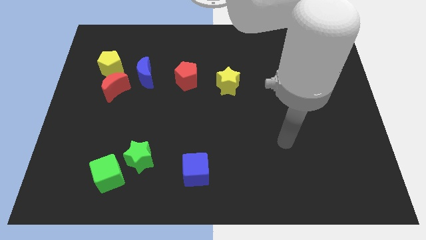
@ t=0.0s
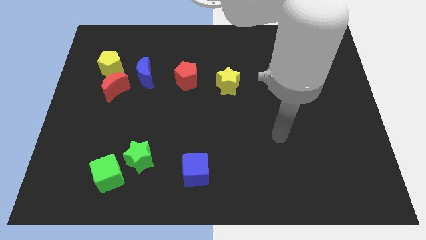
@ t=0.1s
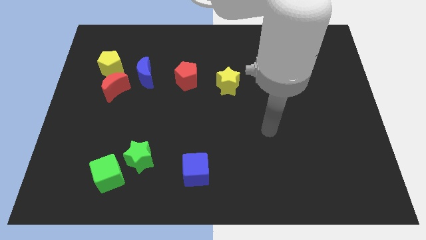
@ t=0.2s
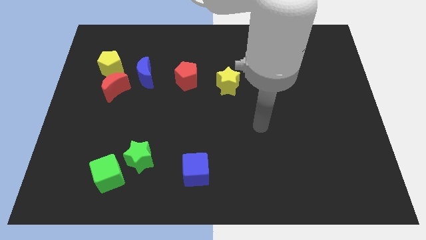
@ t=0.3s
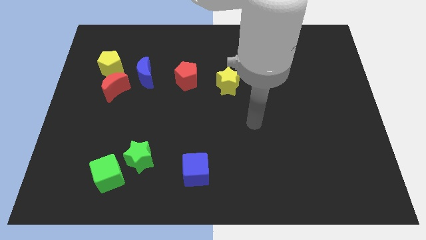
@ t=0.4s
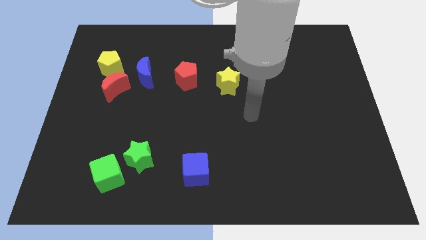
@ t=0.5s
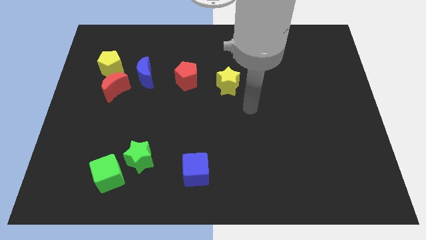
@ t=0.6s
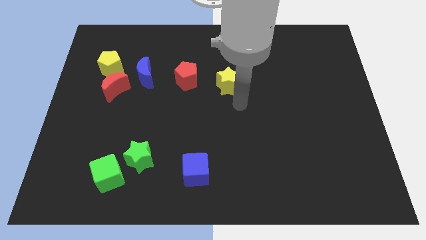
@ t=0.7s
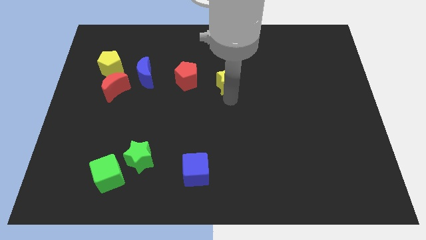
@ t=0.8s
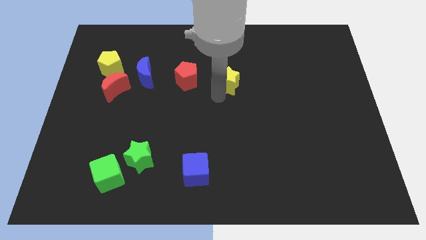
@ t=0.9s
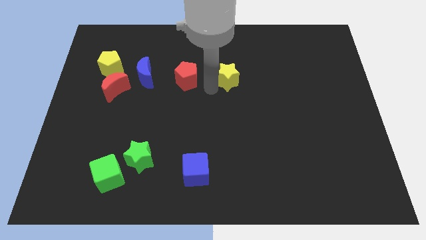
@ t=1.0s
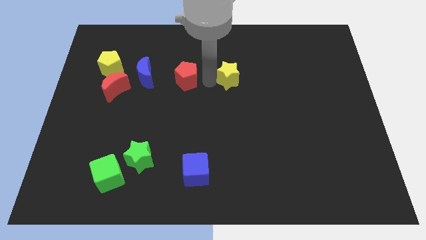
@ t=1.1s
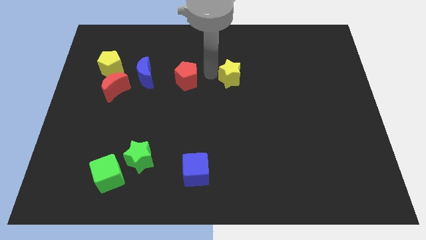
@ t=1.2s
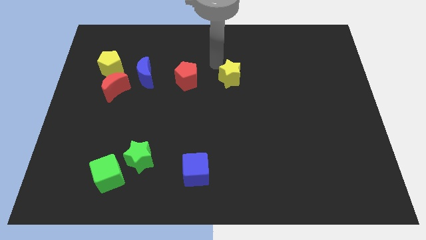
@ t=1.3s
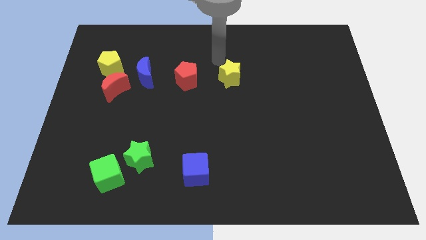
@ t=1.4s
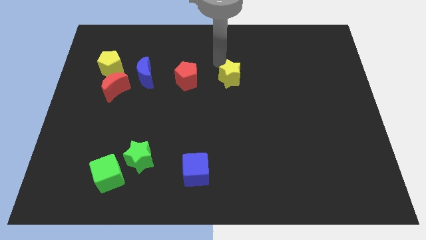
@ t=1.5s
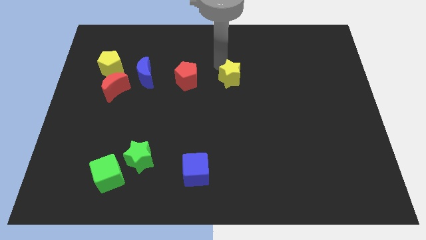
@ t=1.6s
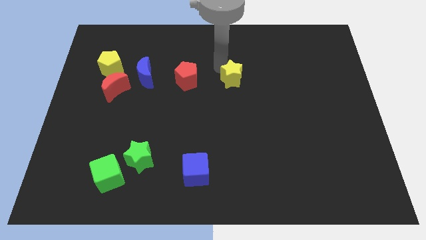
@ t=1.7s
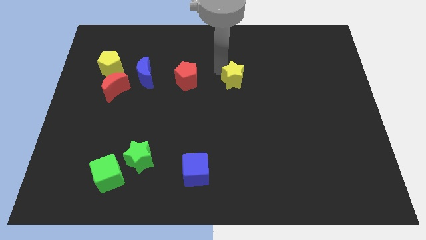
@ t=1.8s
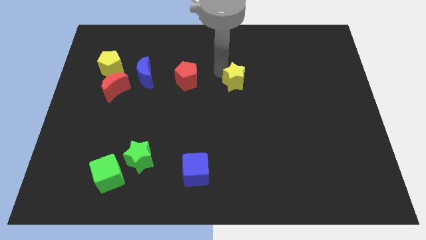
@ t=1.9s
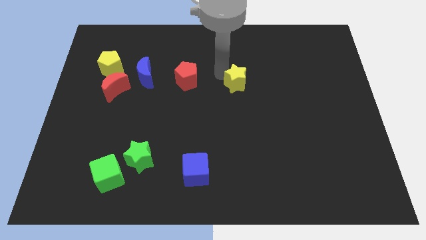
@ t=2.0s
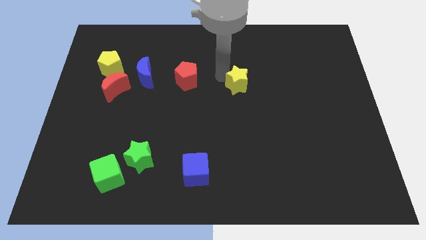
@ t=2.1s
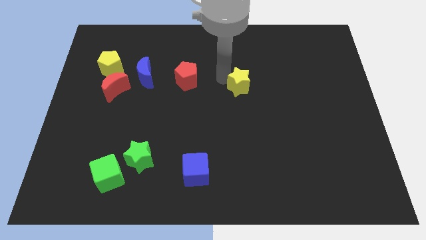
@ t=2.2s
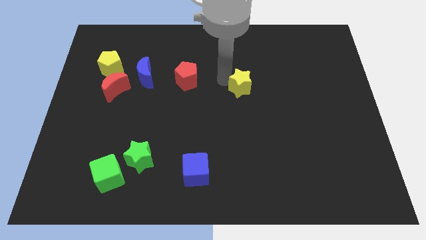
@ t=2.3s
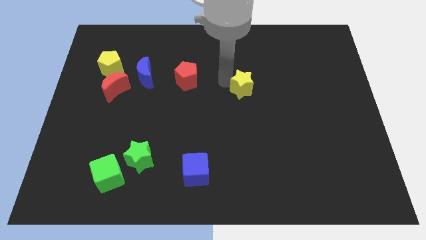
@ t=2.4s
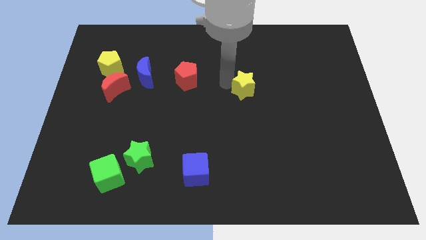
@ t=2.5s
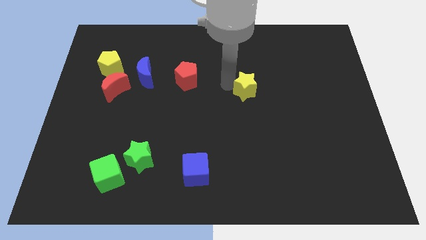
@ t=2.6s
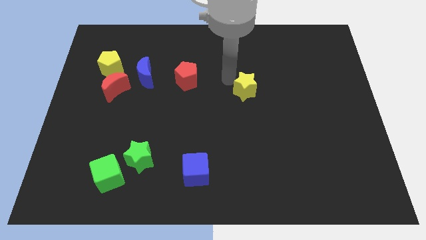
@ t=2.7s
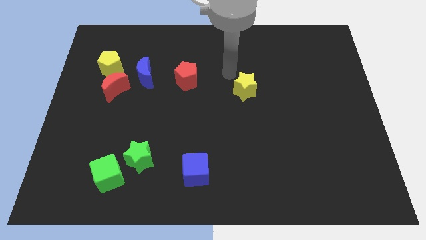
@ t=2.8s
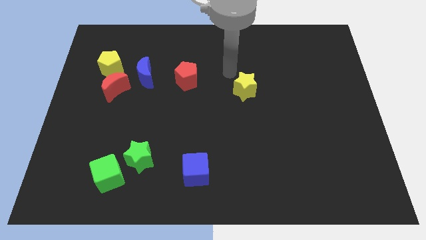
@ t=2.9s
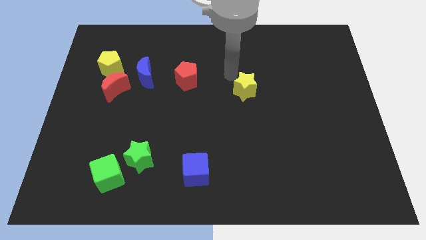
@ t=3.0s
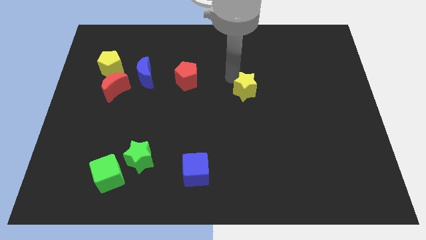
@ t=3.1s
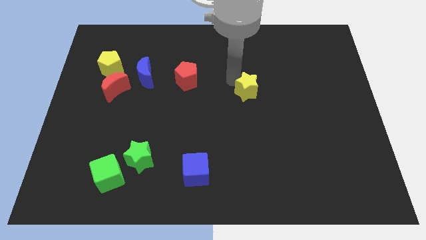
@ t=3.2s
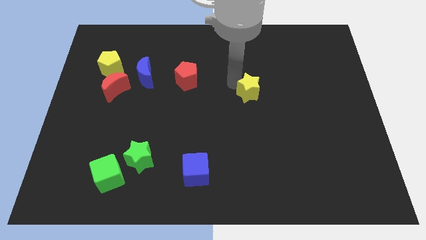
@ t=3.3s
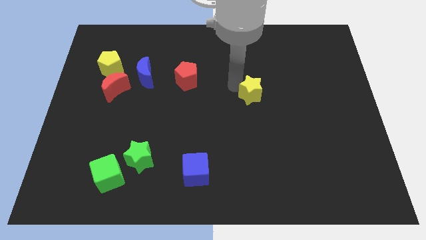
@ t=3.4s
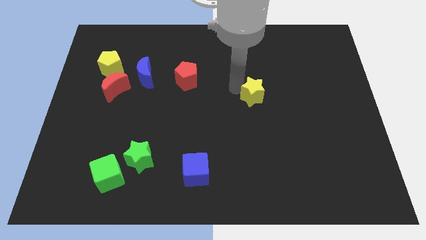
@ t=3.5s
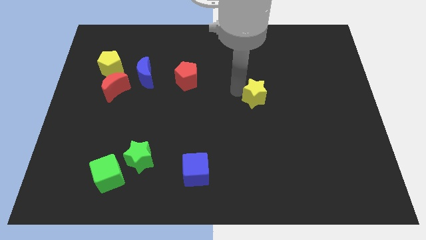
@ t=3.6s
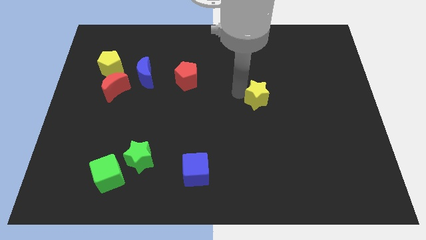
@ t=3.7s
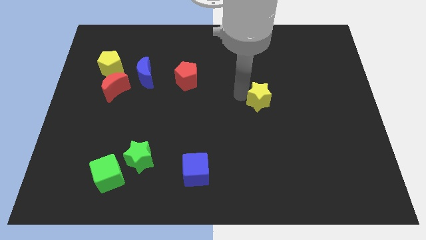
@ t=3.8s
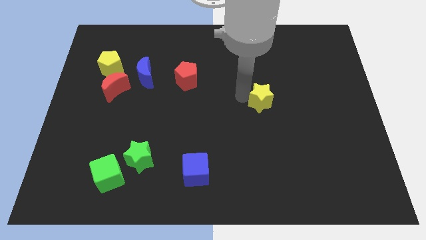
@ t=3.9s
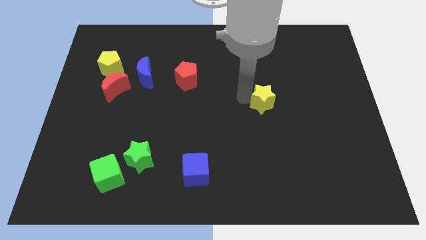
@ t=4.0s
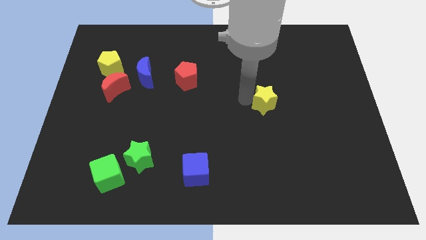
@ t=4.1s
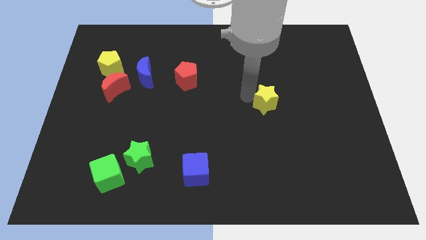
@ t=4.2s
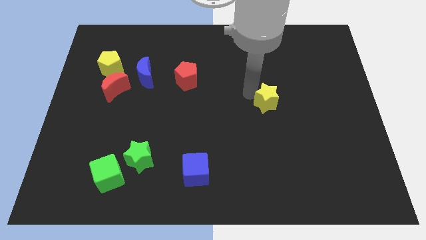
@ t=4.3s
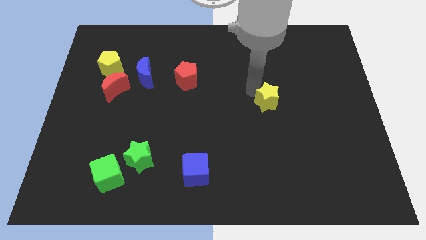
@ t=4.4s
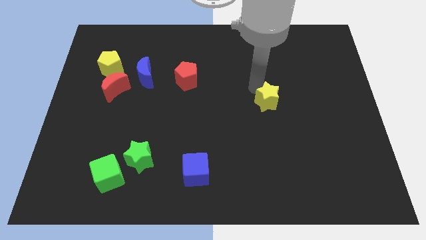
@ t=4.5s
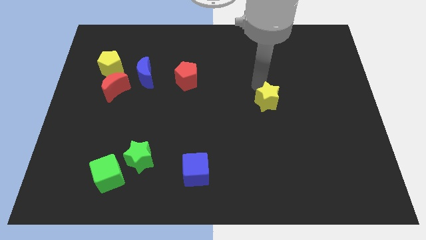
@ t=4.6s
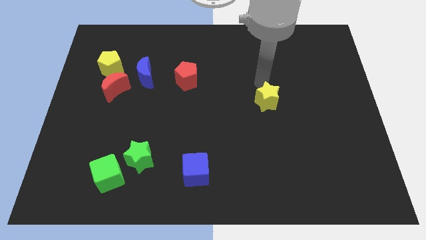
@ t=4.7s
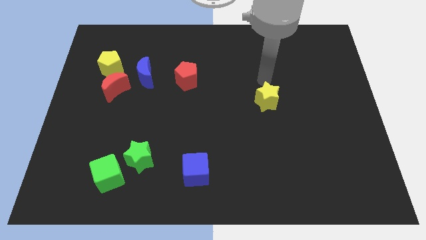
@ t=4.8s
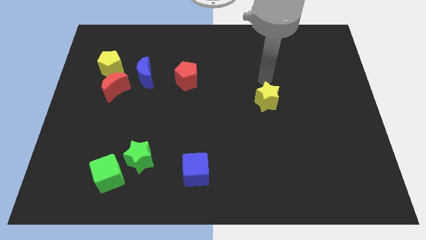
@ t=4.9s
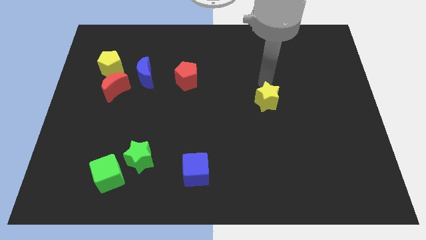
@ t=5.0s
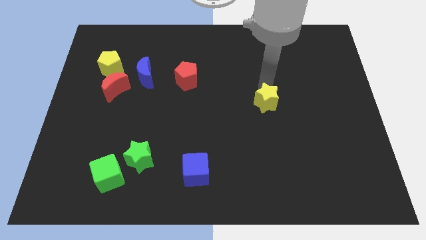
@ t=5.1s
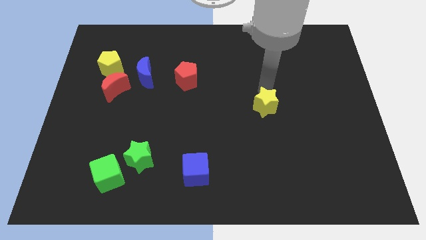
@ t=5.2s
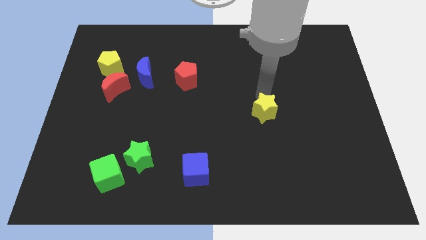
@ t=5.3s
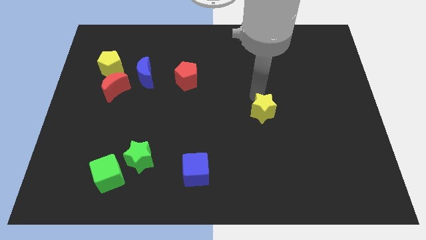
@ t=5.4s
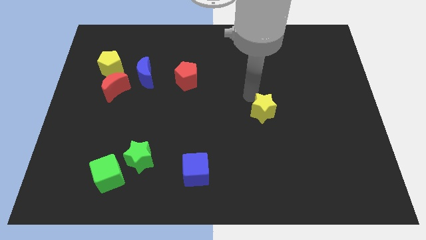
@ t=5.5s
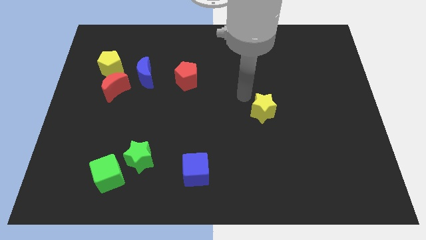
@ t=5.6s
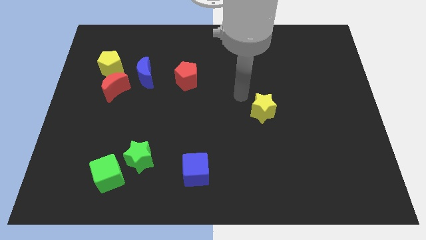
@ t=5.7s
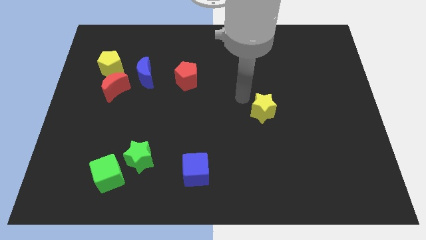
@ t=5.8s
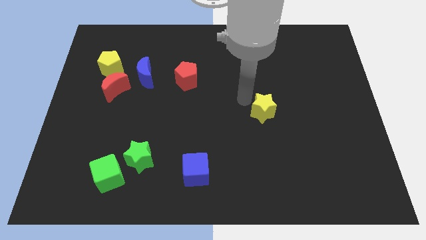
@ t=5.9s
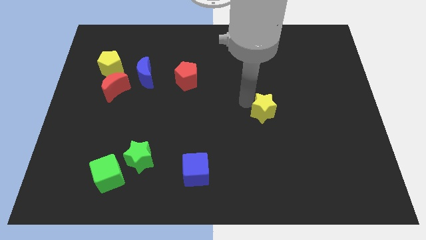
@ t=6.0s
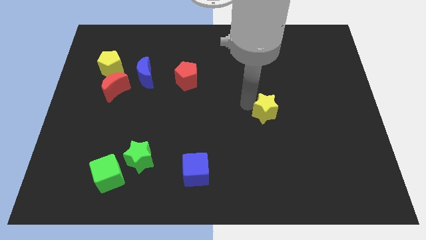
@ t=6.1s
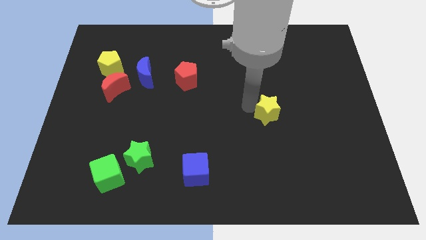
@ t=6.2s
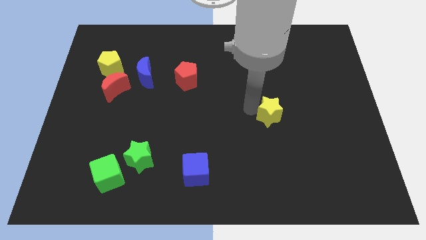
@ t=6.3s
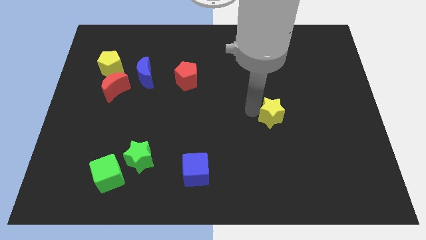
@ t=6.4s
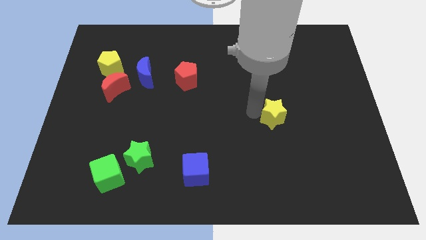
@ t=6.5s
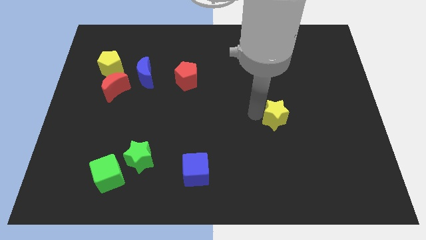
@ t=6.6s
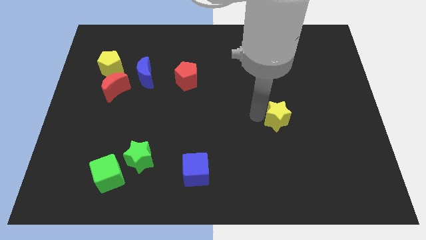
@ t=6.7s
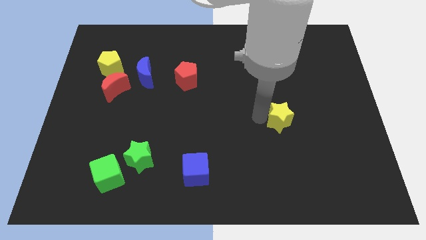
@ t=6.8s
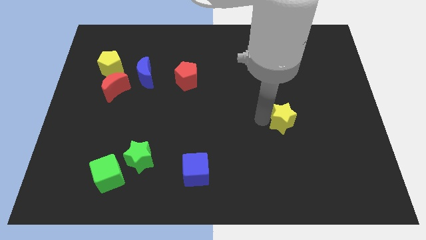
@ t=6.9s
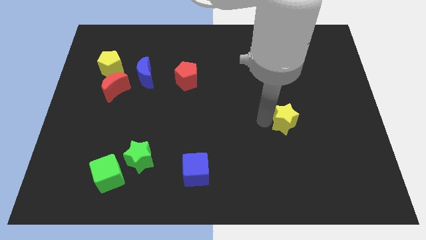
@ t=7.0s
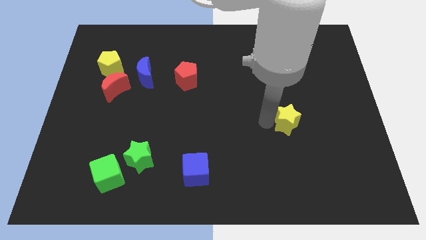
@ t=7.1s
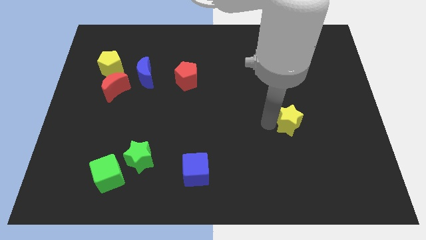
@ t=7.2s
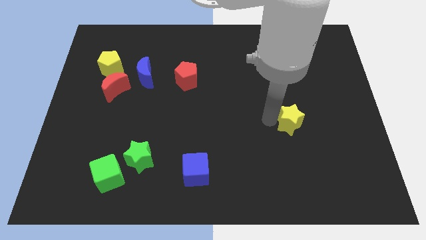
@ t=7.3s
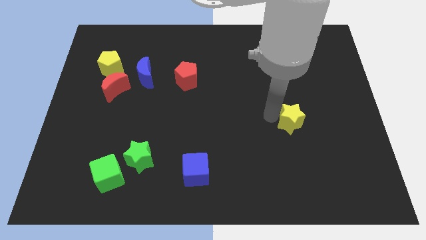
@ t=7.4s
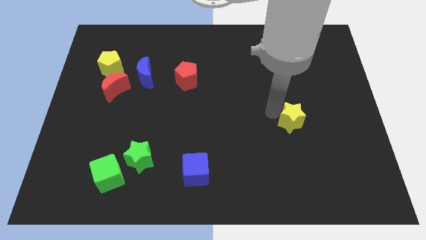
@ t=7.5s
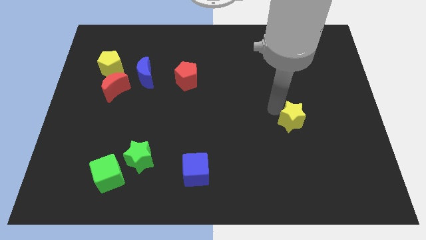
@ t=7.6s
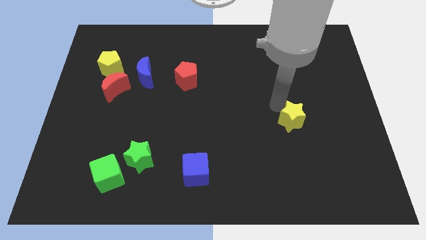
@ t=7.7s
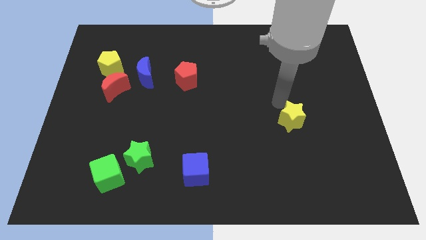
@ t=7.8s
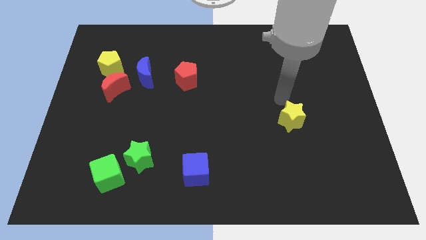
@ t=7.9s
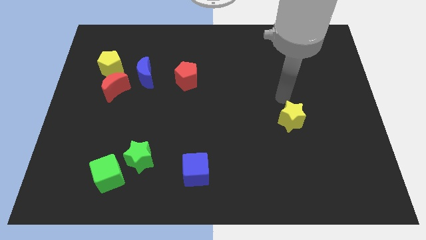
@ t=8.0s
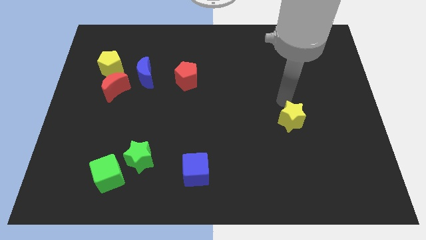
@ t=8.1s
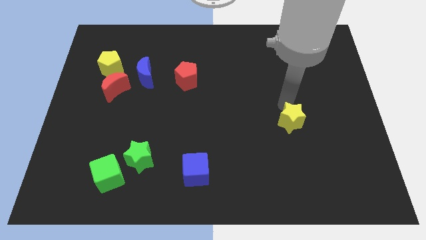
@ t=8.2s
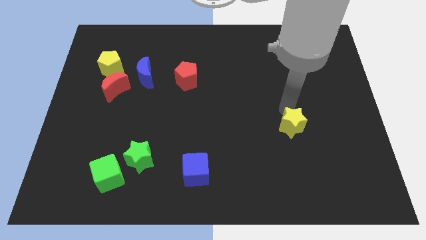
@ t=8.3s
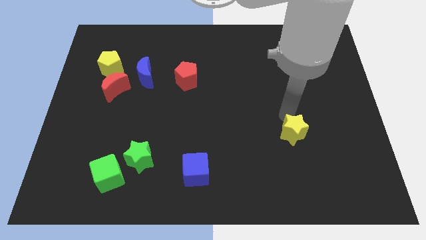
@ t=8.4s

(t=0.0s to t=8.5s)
slide the yellow star diagonally down and right

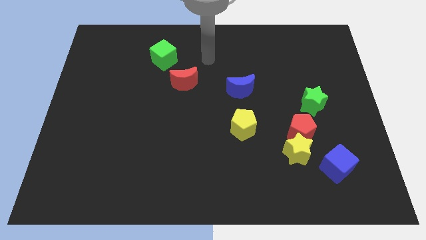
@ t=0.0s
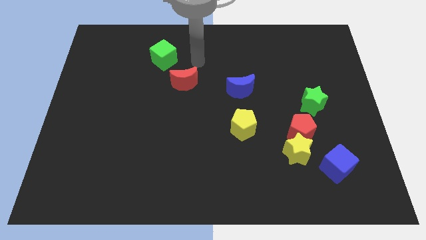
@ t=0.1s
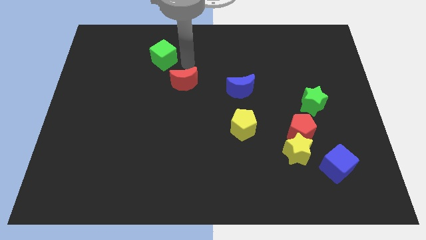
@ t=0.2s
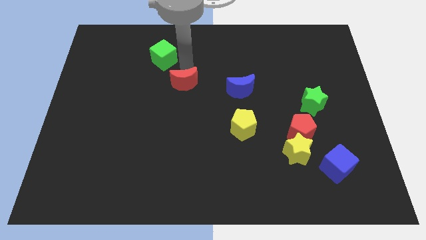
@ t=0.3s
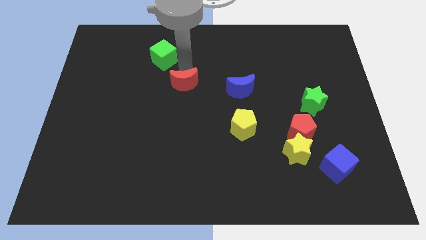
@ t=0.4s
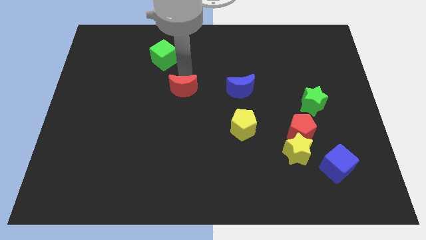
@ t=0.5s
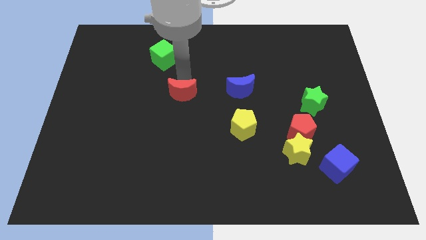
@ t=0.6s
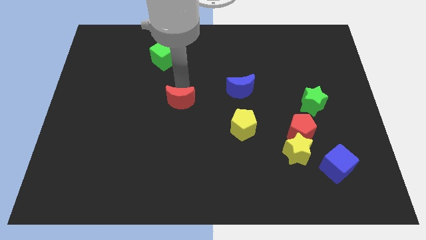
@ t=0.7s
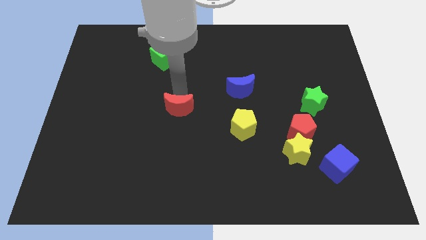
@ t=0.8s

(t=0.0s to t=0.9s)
slide the red moon a bit down
